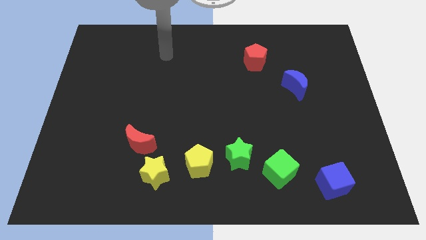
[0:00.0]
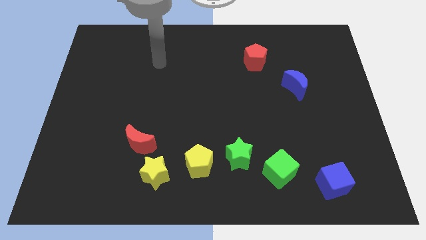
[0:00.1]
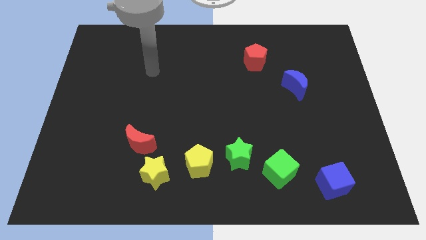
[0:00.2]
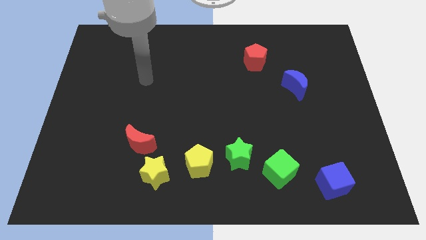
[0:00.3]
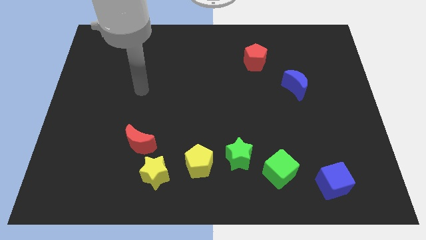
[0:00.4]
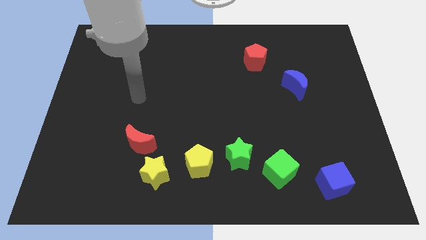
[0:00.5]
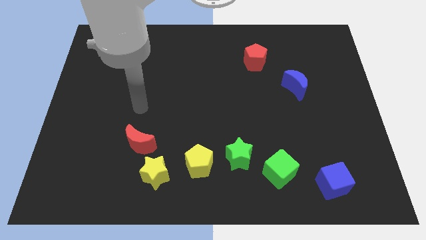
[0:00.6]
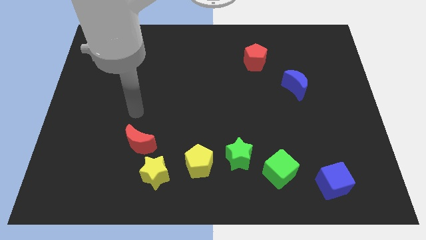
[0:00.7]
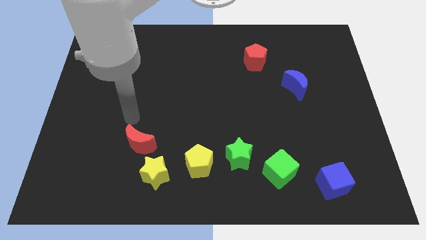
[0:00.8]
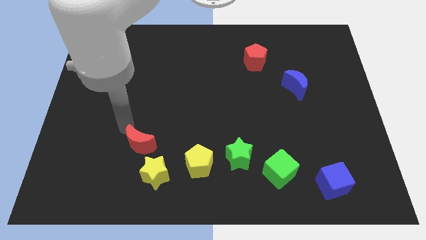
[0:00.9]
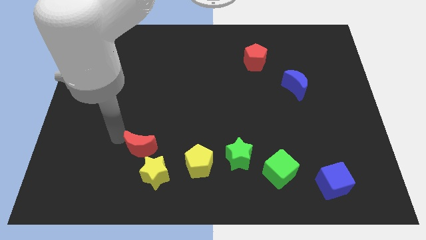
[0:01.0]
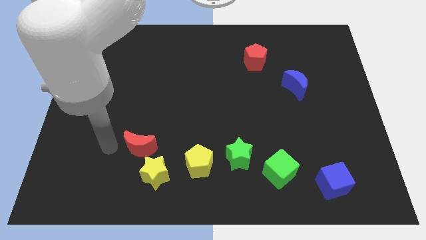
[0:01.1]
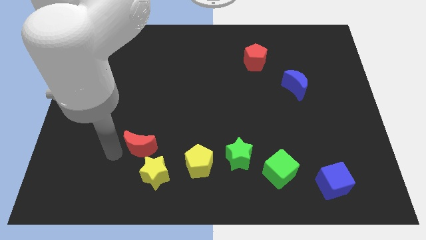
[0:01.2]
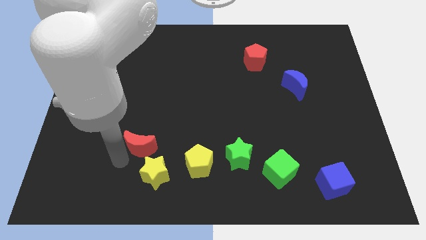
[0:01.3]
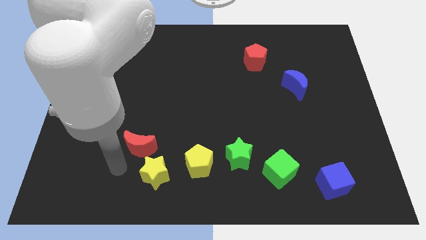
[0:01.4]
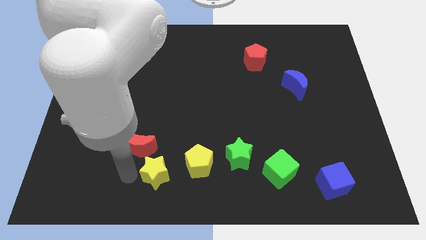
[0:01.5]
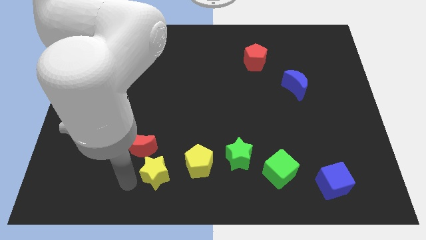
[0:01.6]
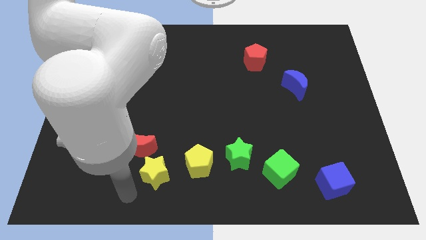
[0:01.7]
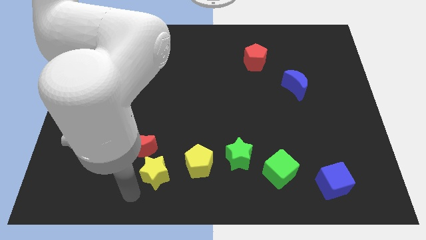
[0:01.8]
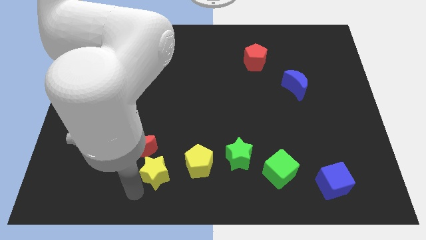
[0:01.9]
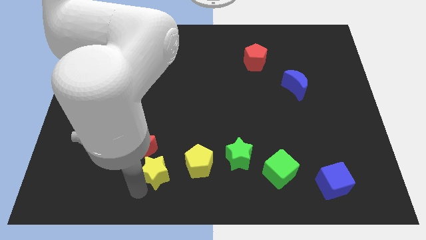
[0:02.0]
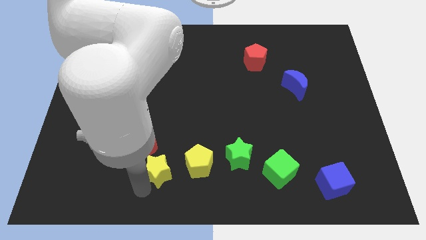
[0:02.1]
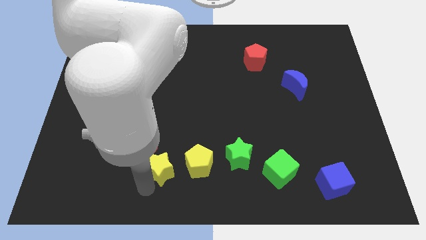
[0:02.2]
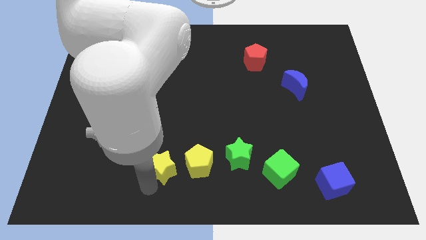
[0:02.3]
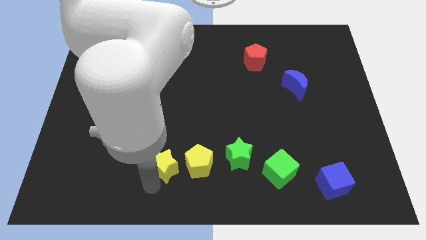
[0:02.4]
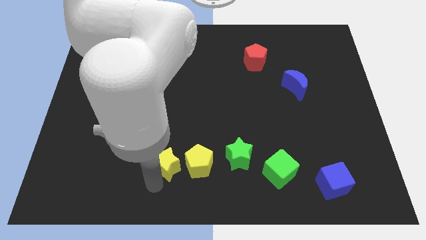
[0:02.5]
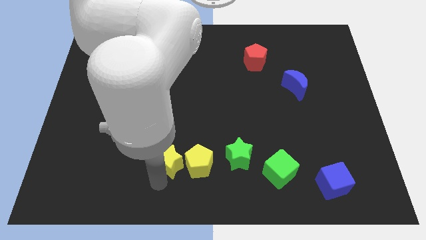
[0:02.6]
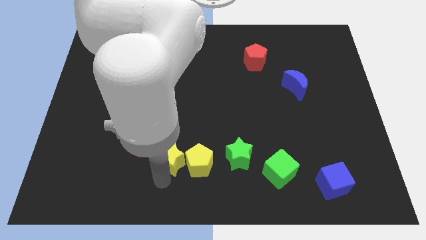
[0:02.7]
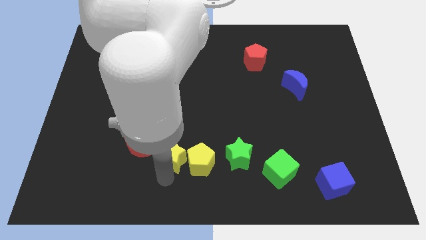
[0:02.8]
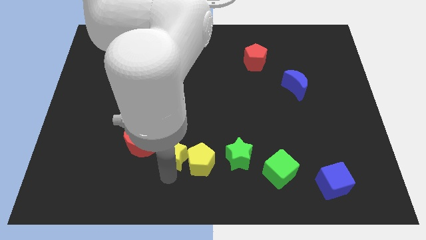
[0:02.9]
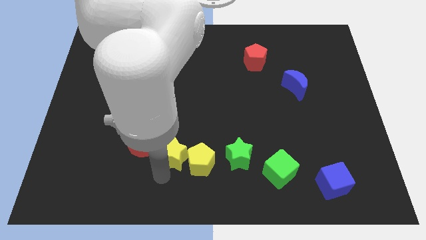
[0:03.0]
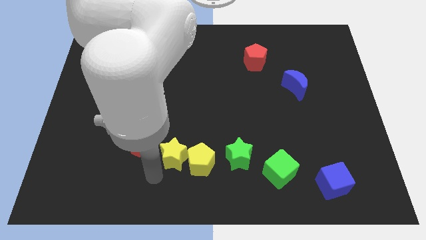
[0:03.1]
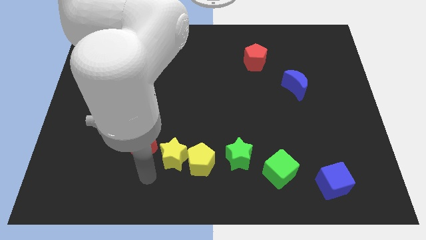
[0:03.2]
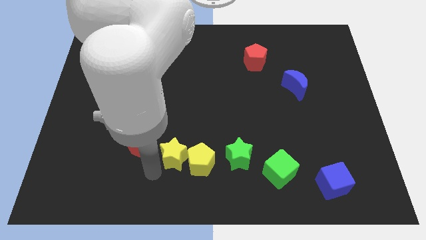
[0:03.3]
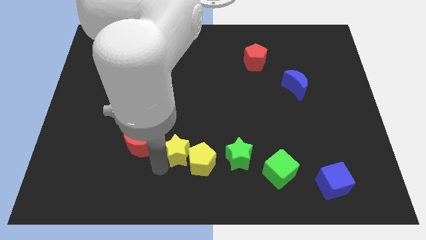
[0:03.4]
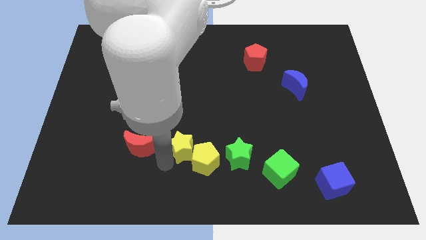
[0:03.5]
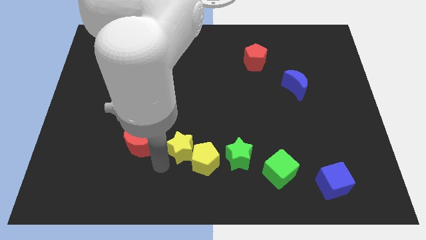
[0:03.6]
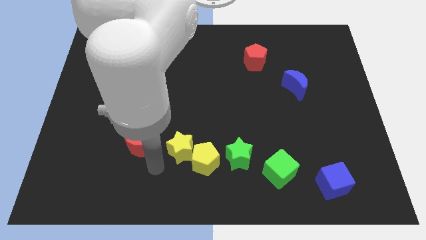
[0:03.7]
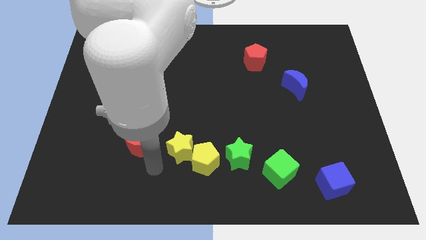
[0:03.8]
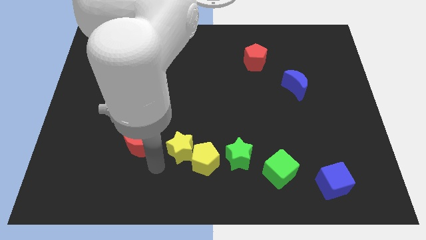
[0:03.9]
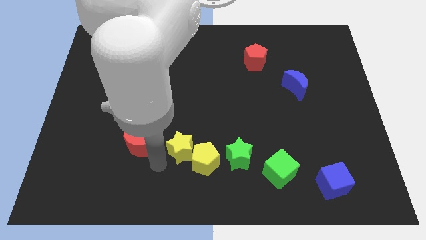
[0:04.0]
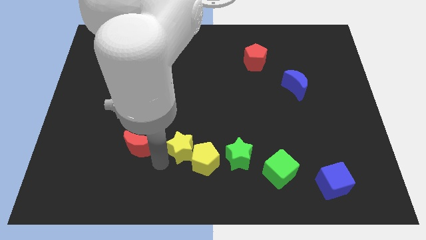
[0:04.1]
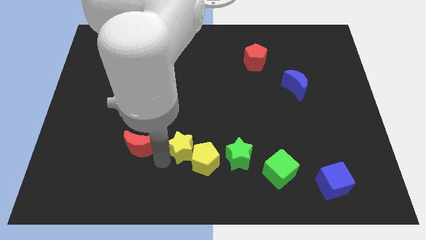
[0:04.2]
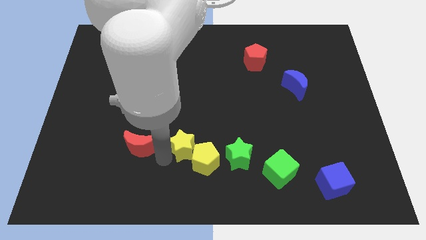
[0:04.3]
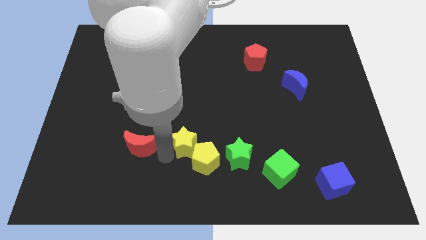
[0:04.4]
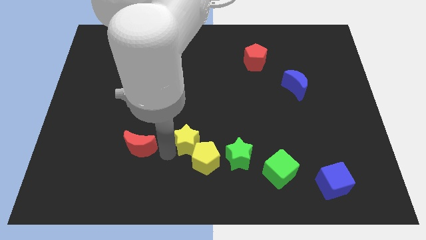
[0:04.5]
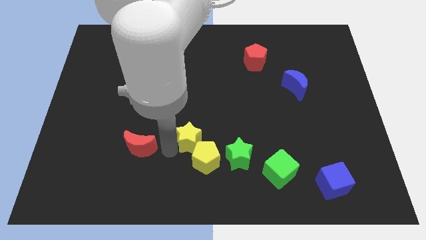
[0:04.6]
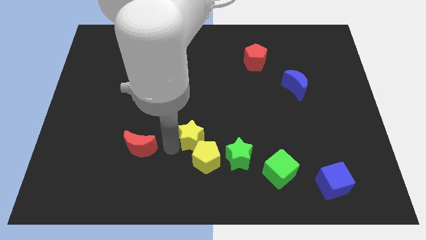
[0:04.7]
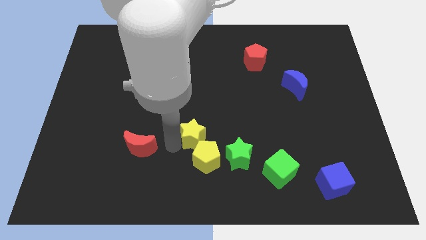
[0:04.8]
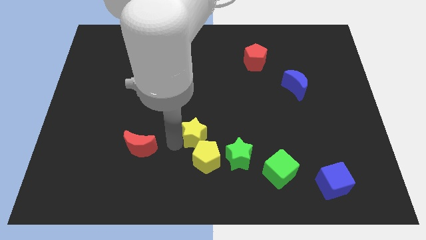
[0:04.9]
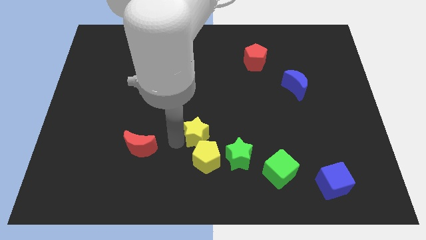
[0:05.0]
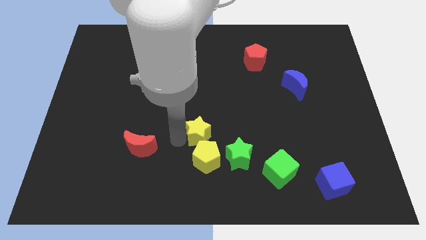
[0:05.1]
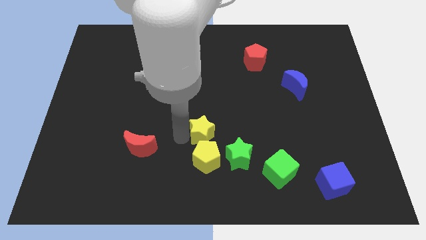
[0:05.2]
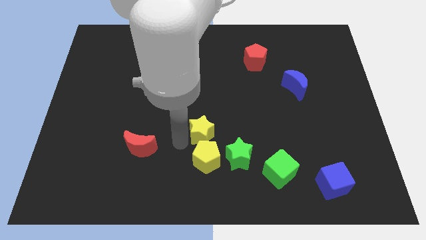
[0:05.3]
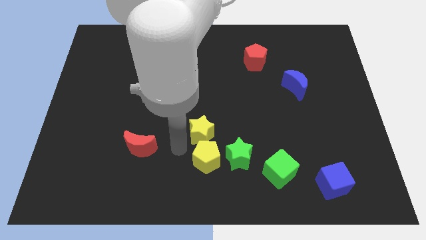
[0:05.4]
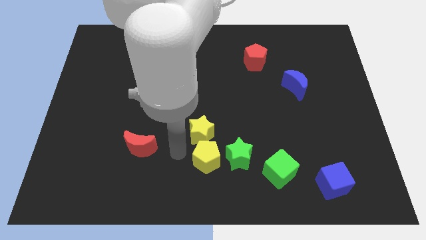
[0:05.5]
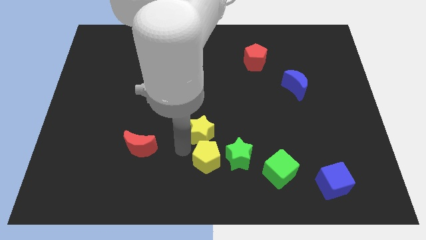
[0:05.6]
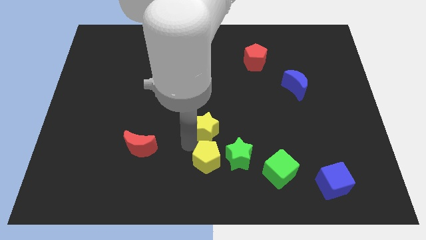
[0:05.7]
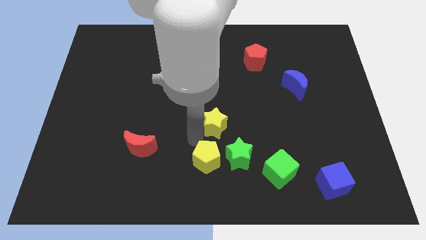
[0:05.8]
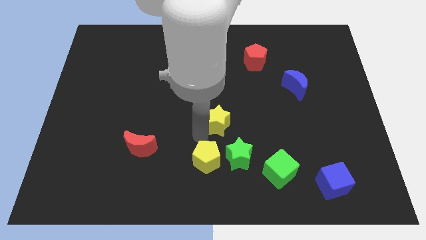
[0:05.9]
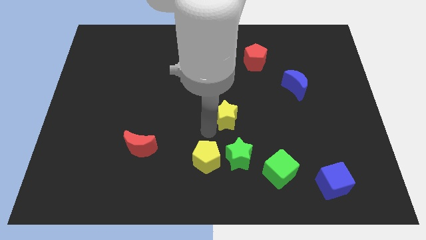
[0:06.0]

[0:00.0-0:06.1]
push the yellow star diagonally up and right

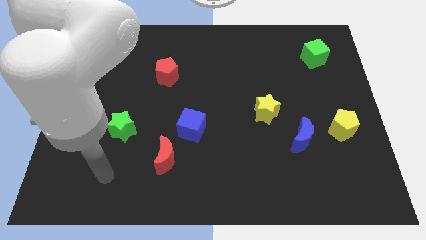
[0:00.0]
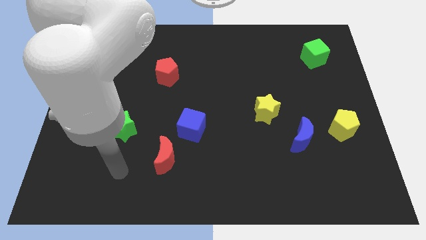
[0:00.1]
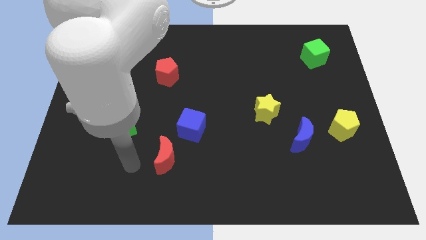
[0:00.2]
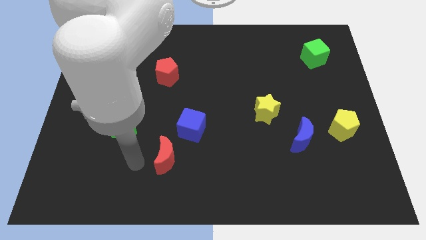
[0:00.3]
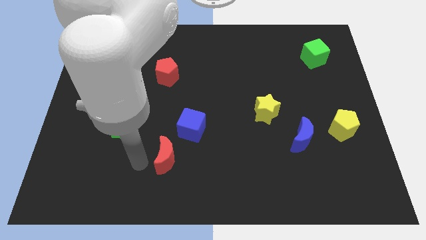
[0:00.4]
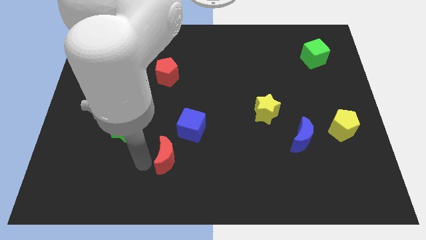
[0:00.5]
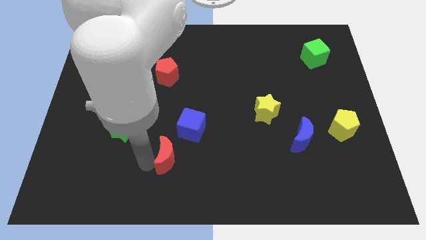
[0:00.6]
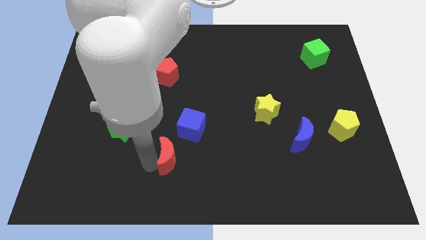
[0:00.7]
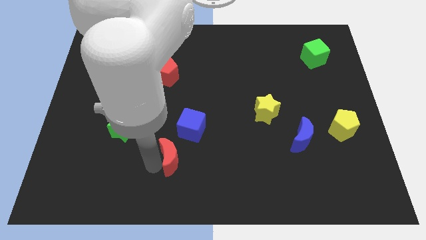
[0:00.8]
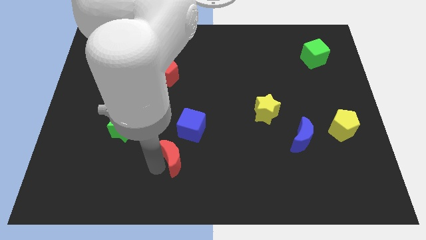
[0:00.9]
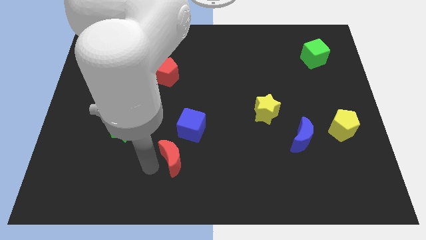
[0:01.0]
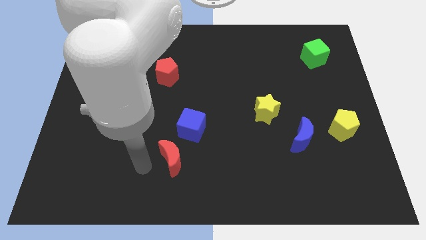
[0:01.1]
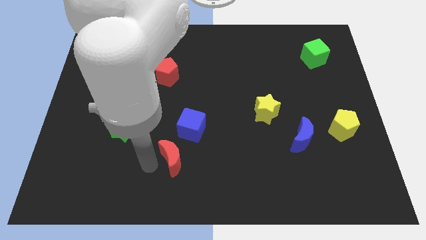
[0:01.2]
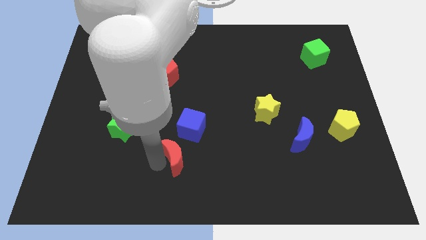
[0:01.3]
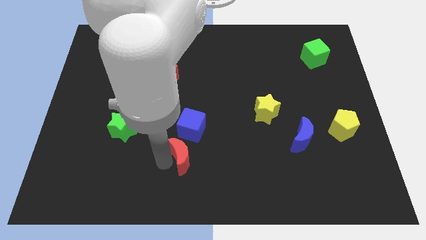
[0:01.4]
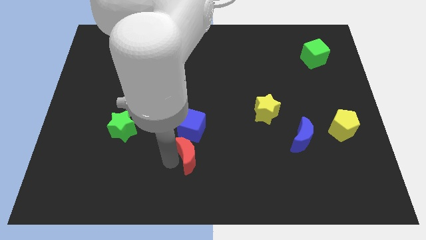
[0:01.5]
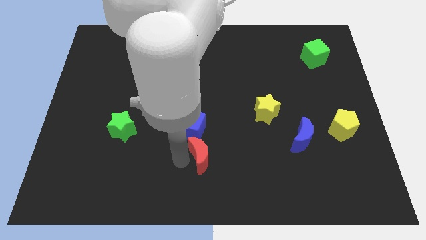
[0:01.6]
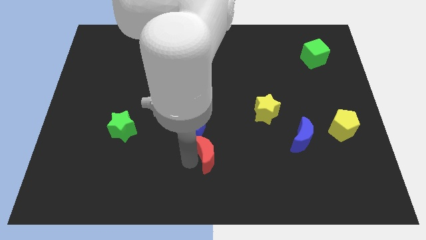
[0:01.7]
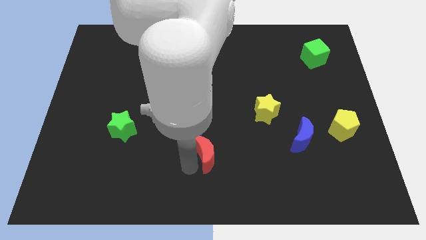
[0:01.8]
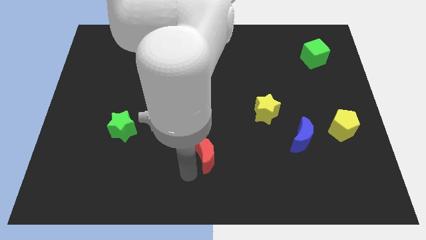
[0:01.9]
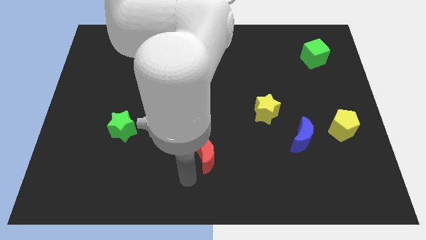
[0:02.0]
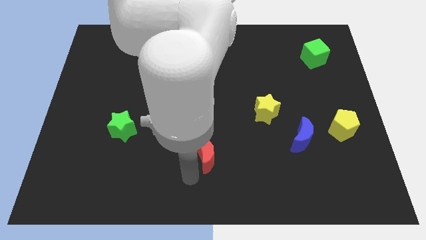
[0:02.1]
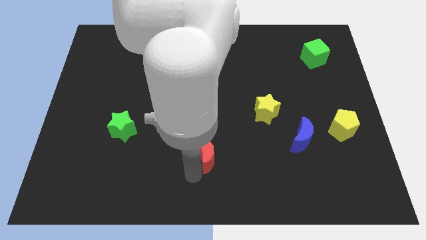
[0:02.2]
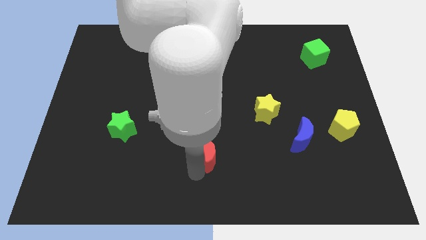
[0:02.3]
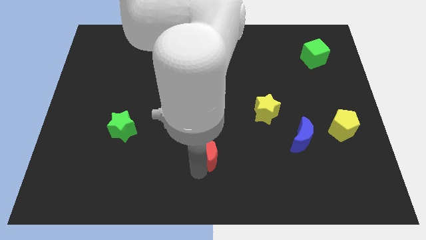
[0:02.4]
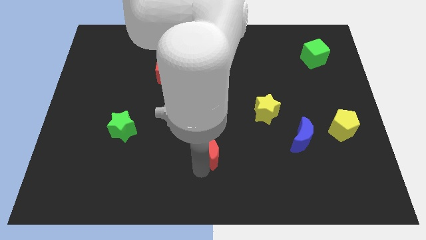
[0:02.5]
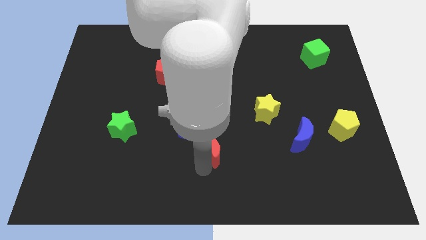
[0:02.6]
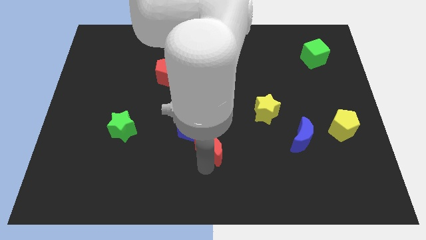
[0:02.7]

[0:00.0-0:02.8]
move the red moon upwards and right slightly
